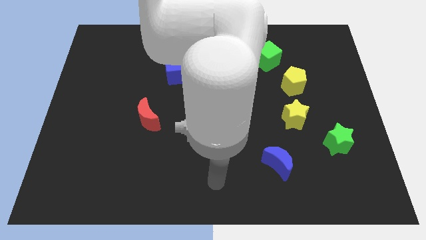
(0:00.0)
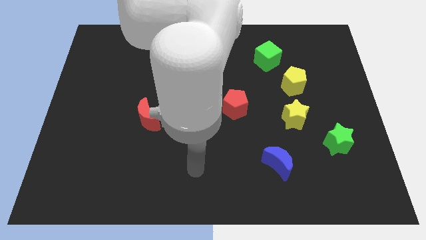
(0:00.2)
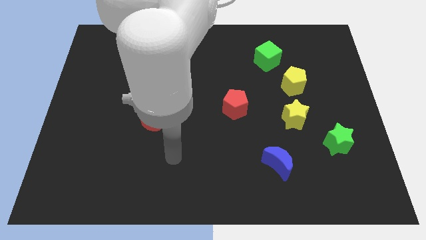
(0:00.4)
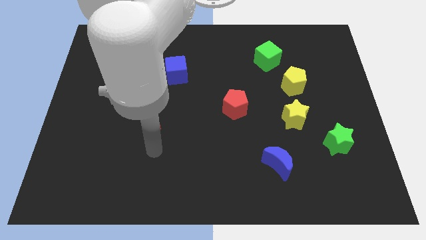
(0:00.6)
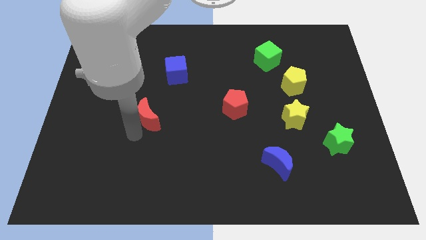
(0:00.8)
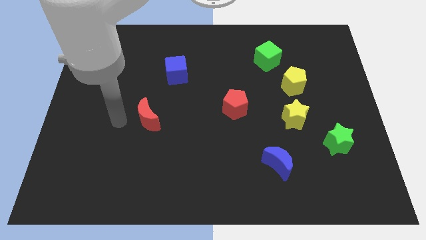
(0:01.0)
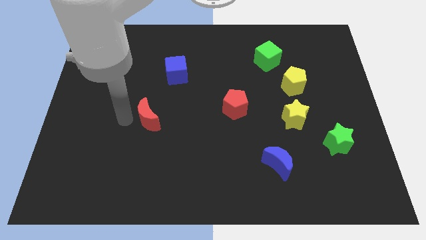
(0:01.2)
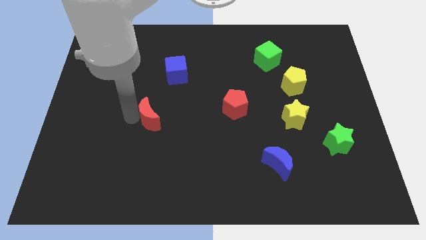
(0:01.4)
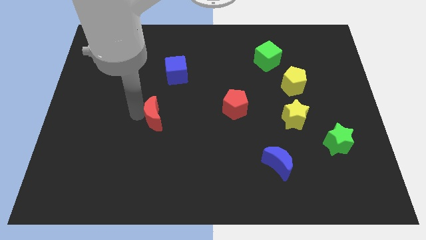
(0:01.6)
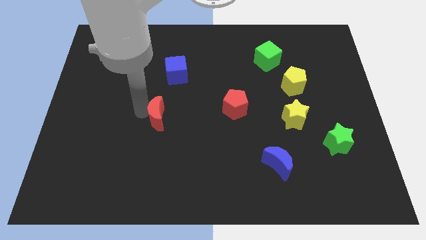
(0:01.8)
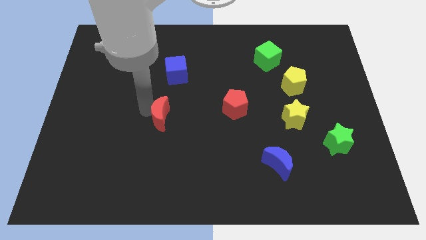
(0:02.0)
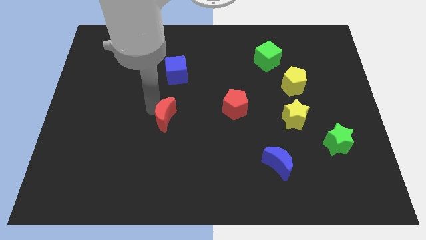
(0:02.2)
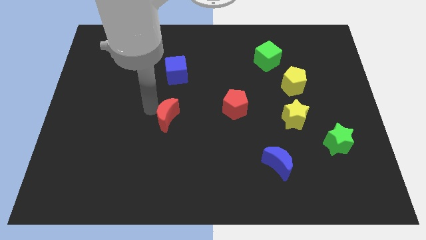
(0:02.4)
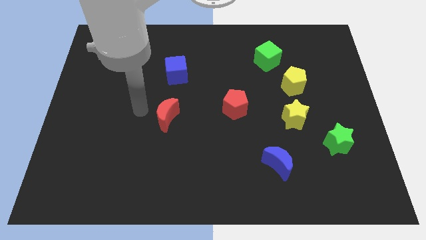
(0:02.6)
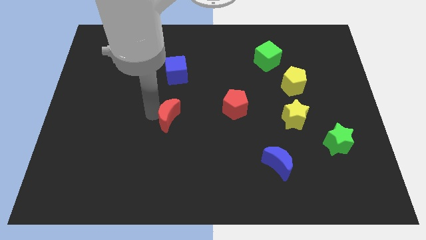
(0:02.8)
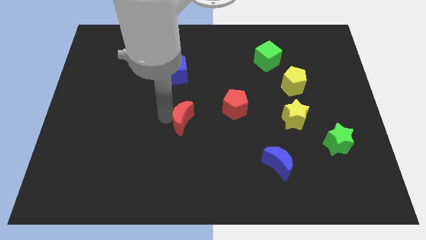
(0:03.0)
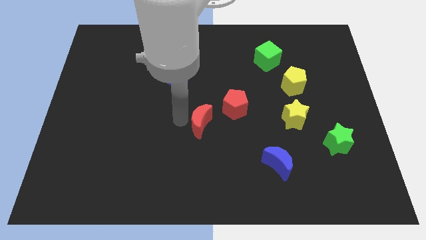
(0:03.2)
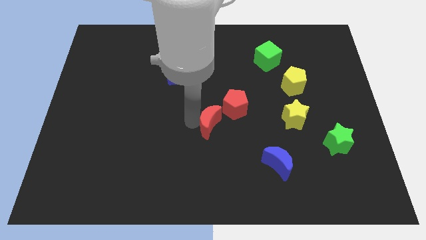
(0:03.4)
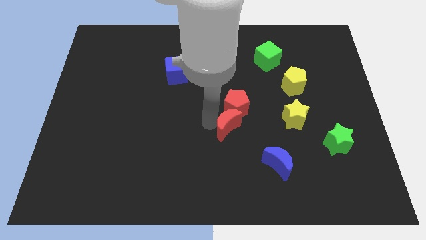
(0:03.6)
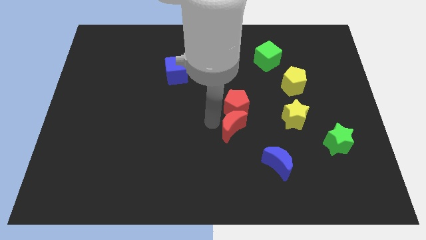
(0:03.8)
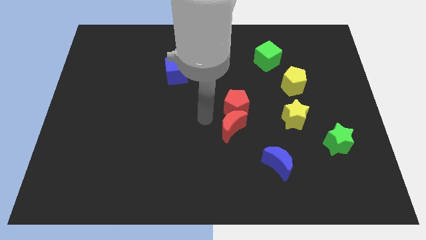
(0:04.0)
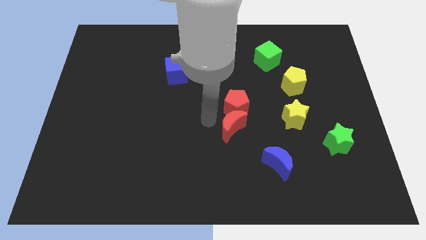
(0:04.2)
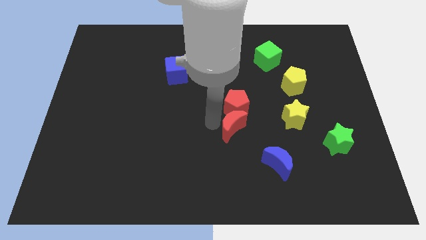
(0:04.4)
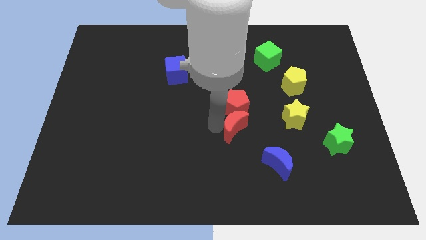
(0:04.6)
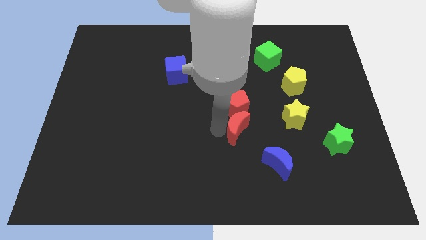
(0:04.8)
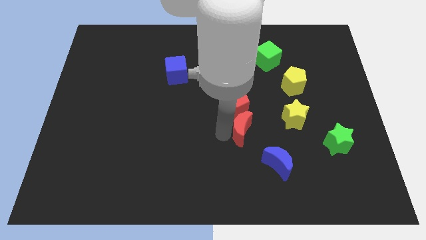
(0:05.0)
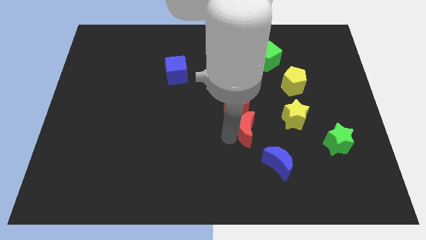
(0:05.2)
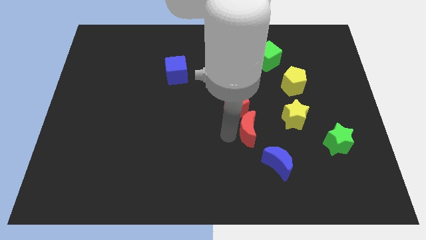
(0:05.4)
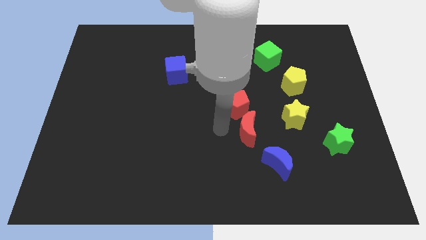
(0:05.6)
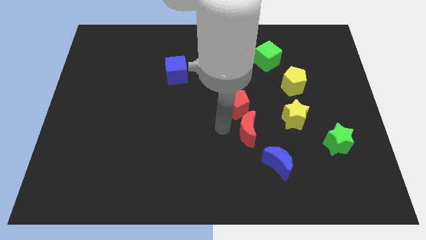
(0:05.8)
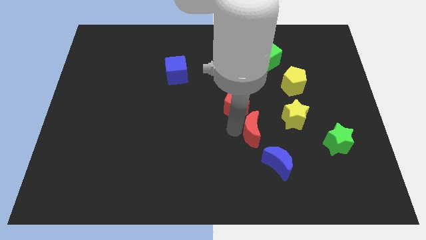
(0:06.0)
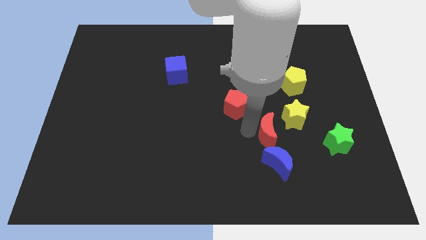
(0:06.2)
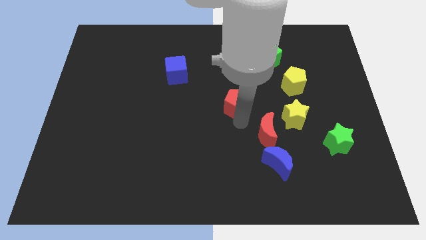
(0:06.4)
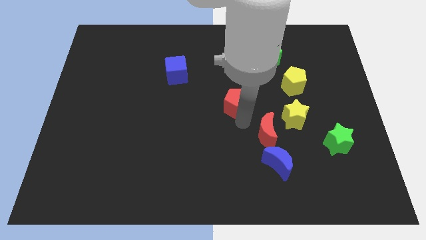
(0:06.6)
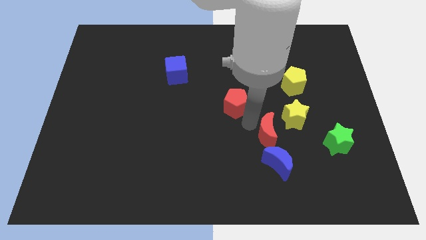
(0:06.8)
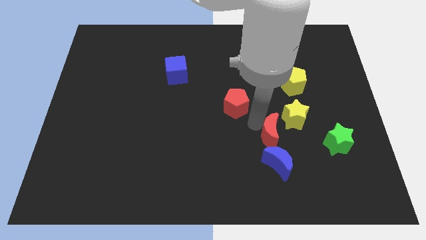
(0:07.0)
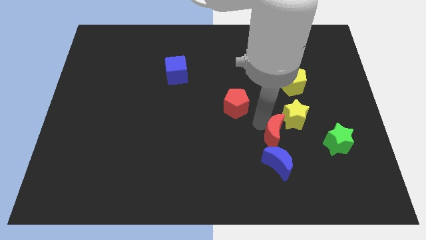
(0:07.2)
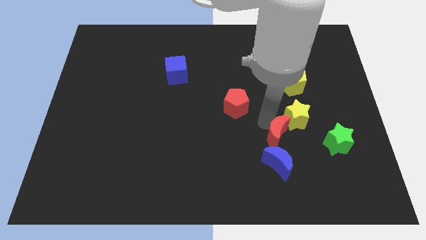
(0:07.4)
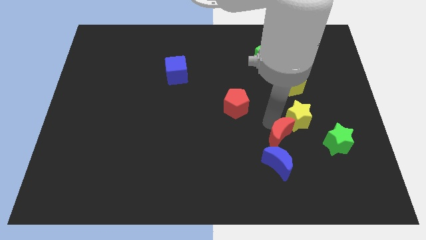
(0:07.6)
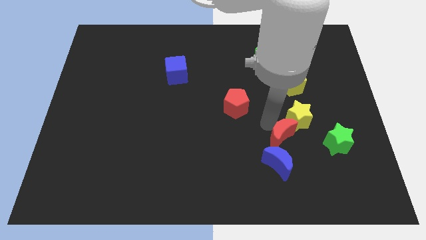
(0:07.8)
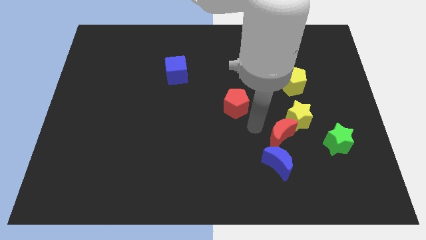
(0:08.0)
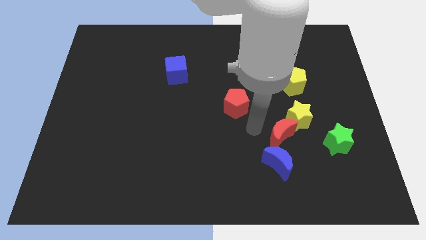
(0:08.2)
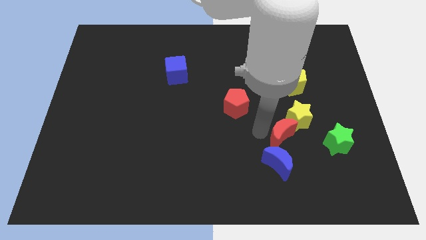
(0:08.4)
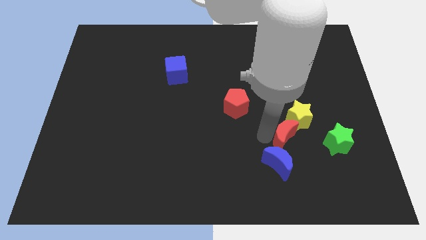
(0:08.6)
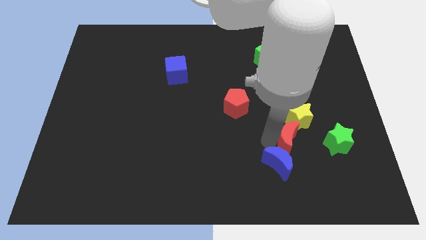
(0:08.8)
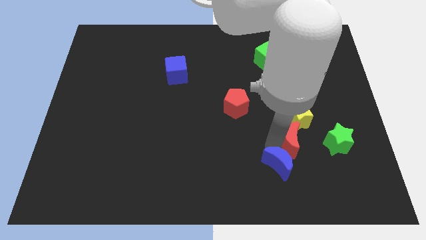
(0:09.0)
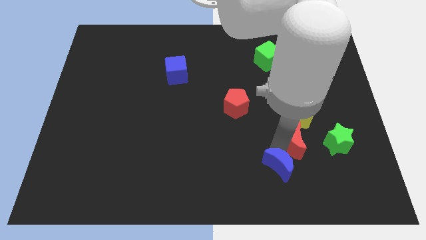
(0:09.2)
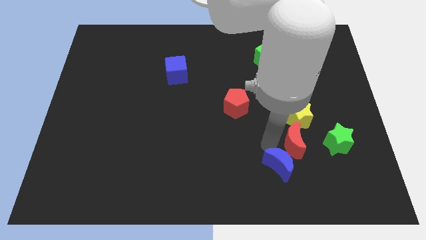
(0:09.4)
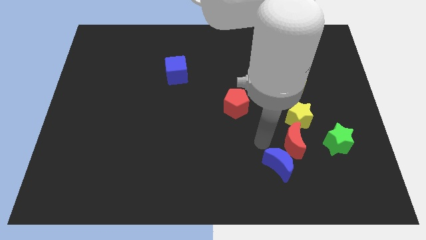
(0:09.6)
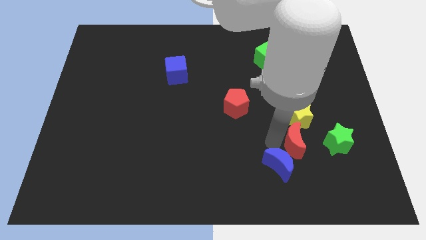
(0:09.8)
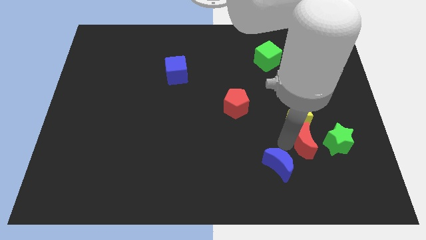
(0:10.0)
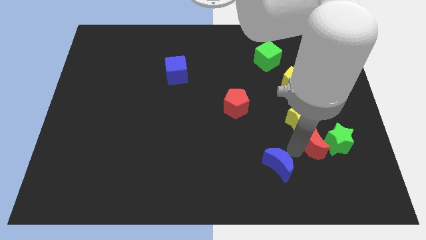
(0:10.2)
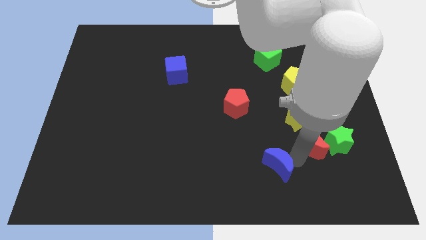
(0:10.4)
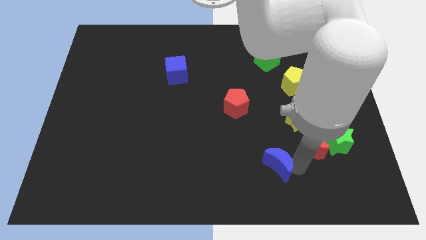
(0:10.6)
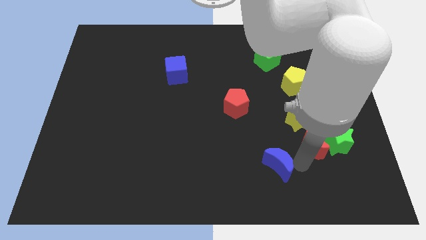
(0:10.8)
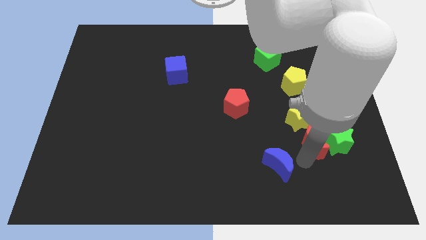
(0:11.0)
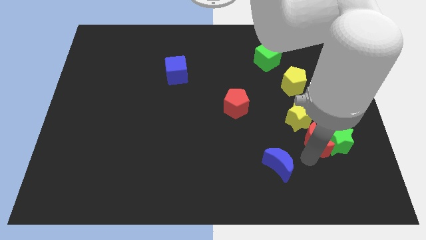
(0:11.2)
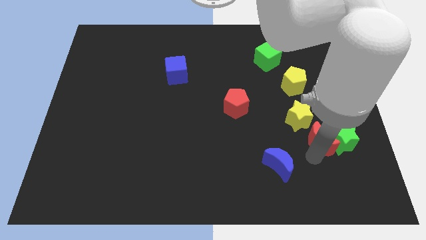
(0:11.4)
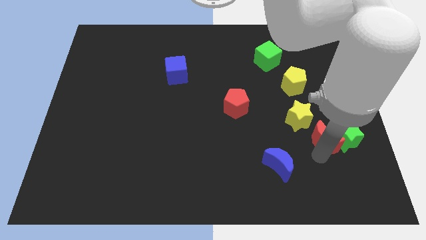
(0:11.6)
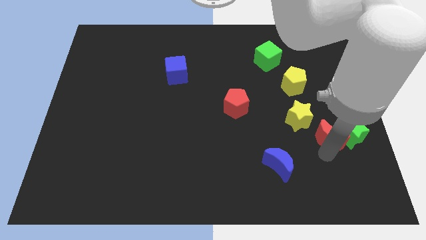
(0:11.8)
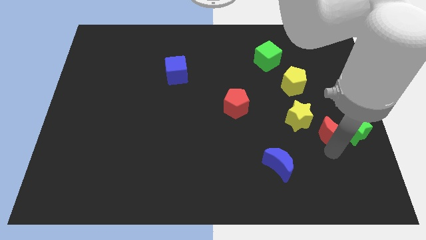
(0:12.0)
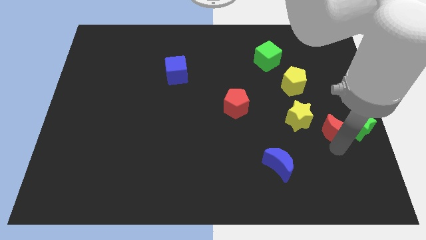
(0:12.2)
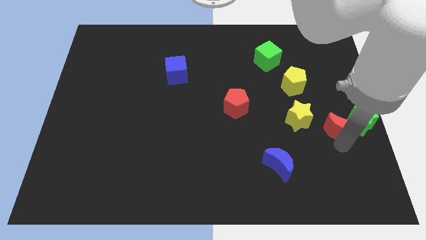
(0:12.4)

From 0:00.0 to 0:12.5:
push the red moon to the right side of the board

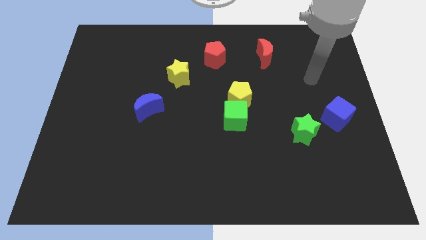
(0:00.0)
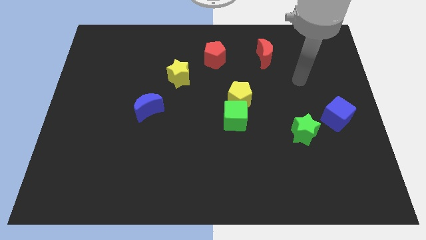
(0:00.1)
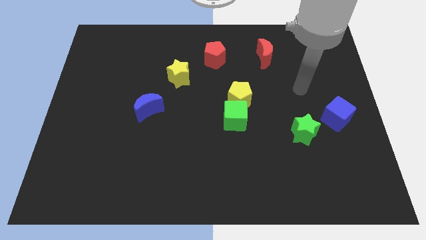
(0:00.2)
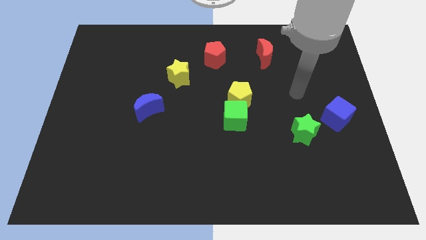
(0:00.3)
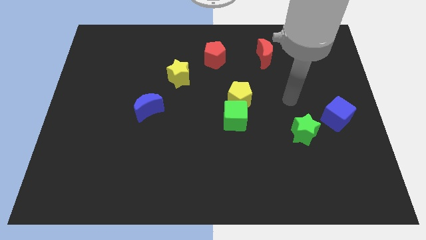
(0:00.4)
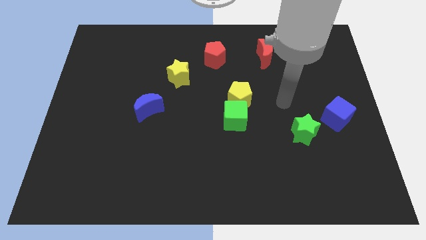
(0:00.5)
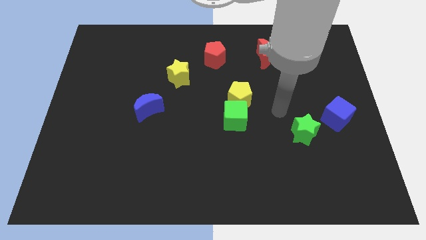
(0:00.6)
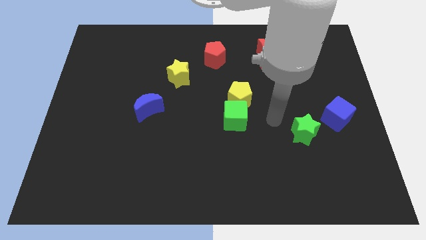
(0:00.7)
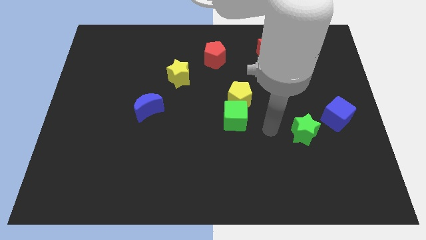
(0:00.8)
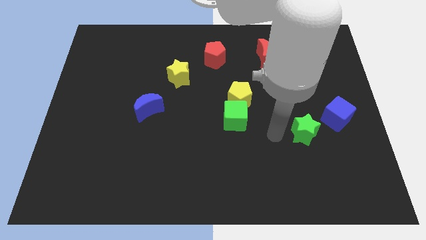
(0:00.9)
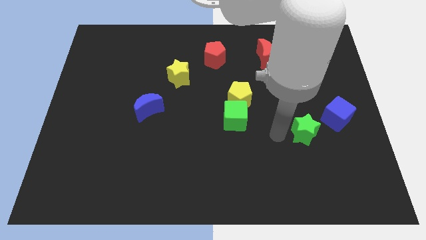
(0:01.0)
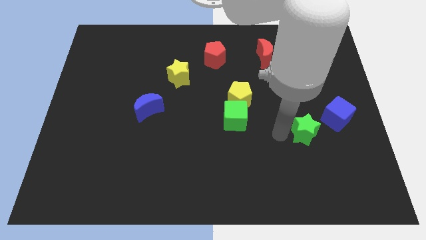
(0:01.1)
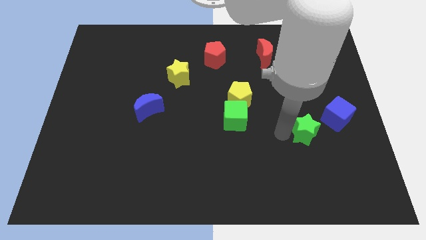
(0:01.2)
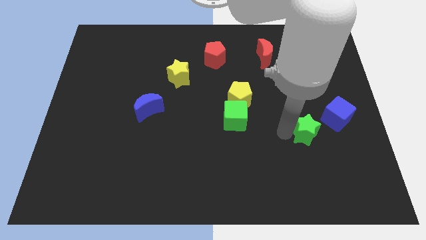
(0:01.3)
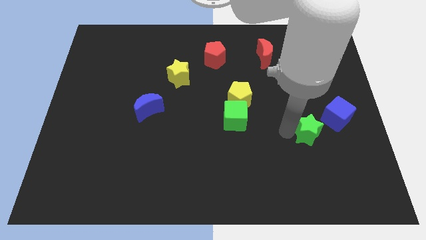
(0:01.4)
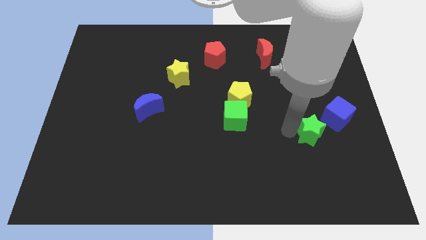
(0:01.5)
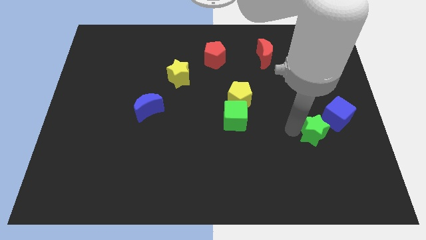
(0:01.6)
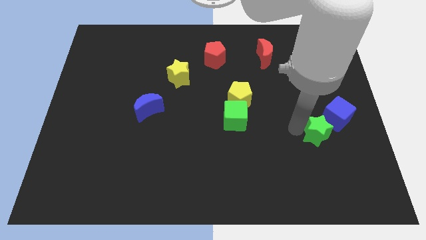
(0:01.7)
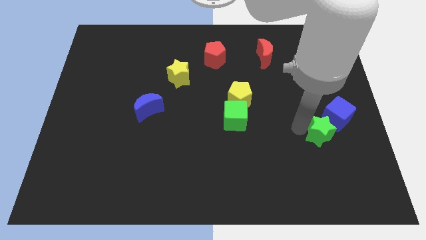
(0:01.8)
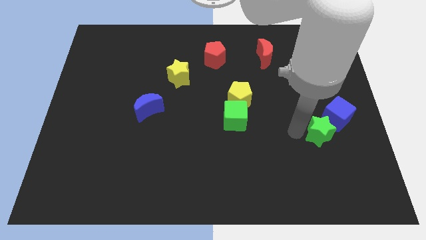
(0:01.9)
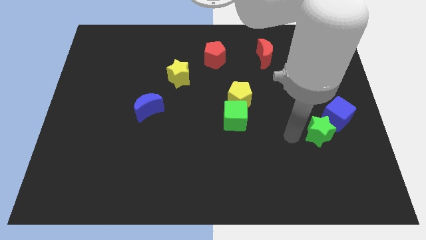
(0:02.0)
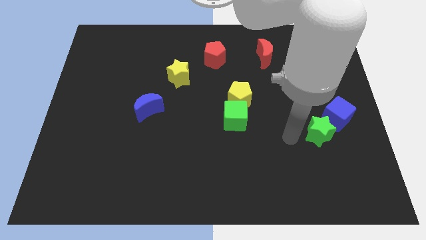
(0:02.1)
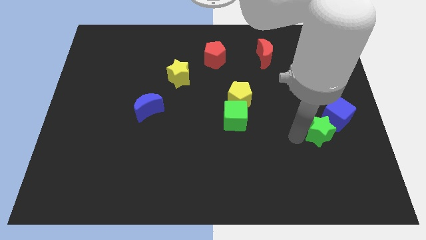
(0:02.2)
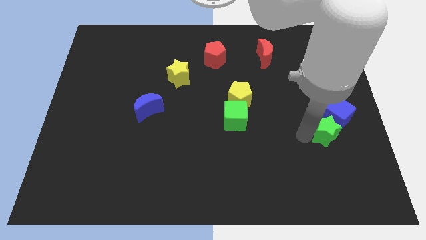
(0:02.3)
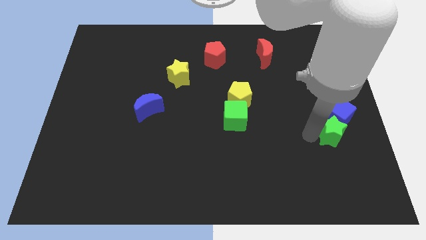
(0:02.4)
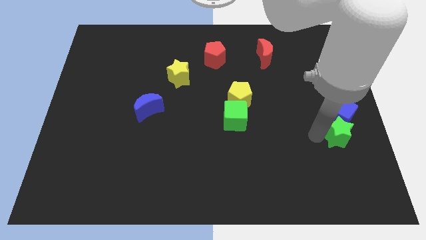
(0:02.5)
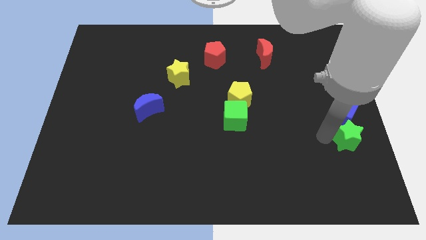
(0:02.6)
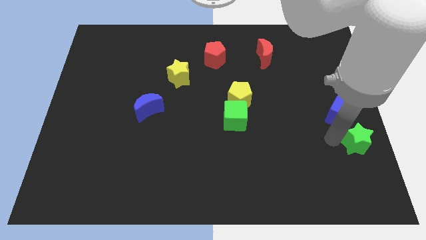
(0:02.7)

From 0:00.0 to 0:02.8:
put the green star to the right side
